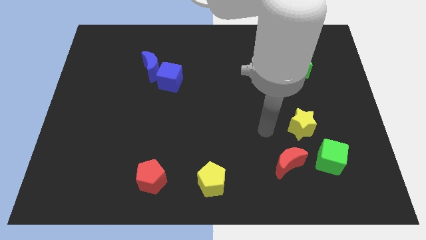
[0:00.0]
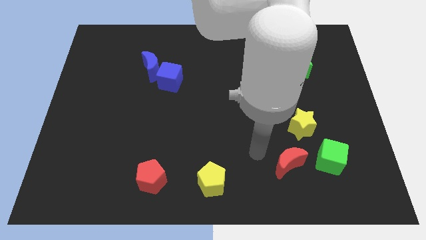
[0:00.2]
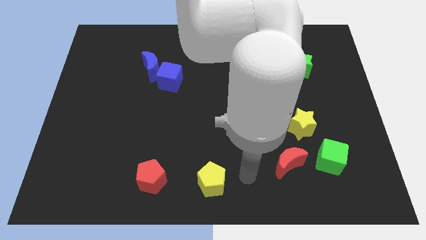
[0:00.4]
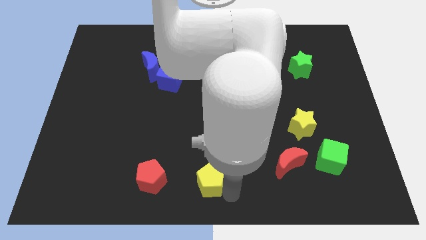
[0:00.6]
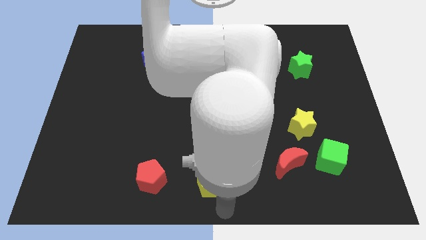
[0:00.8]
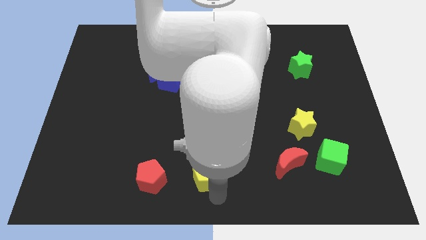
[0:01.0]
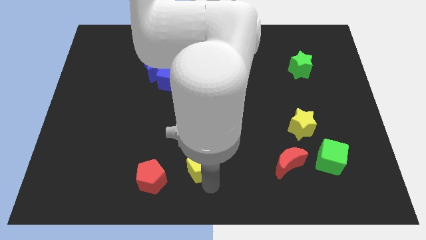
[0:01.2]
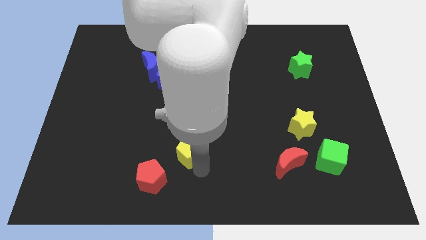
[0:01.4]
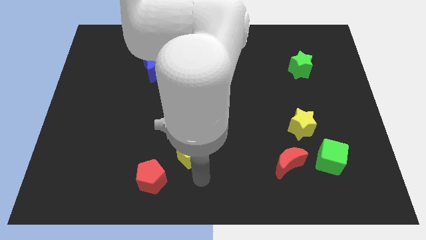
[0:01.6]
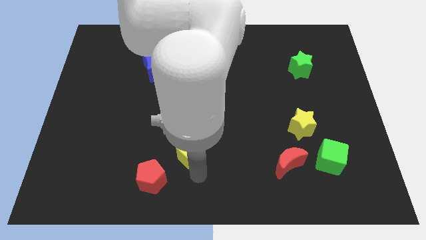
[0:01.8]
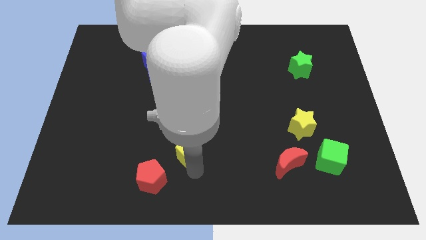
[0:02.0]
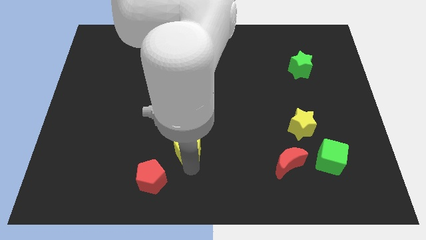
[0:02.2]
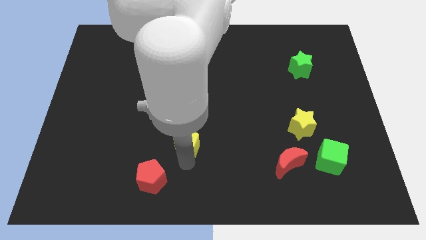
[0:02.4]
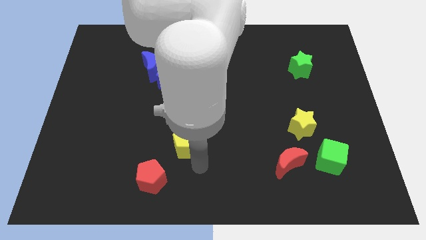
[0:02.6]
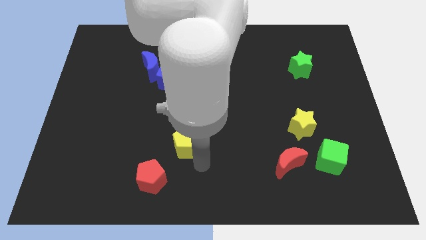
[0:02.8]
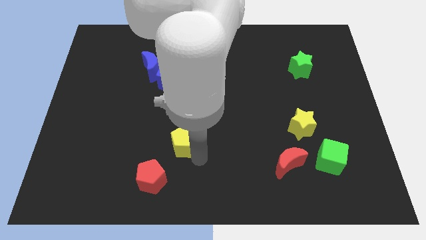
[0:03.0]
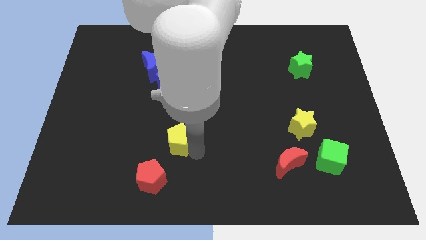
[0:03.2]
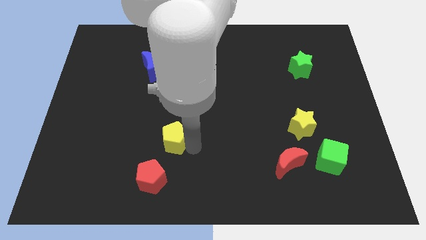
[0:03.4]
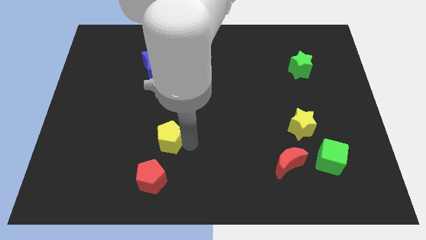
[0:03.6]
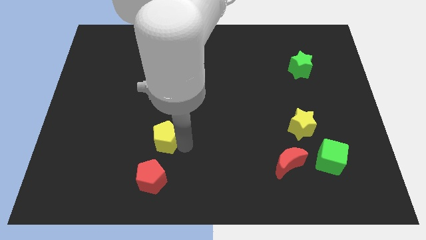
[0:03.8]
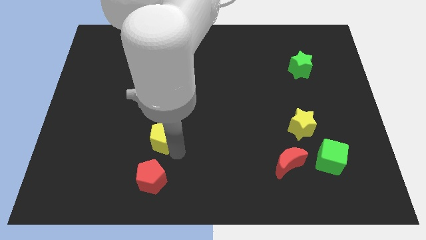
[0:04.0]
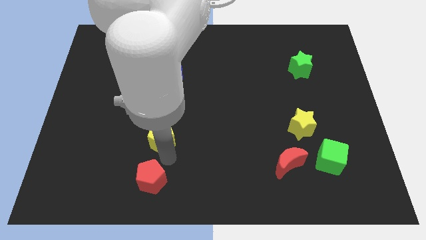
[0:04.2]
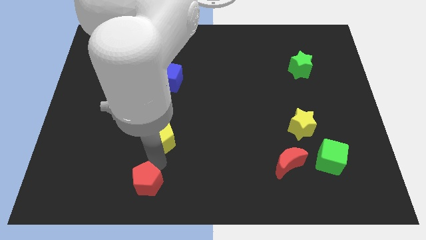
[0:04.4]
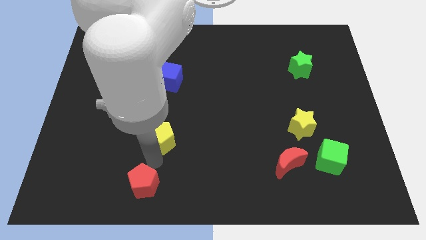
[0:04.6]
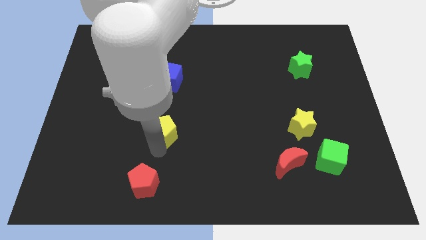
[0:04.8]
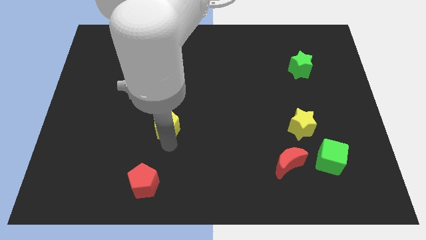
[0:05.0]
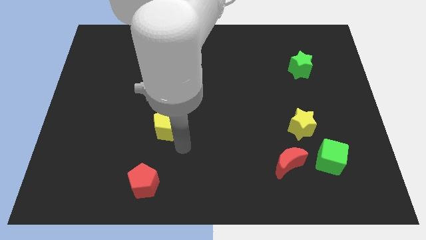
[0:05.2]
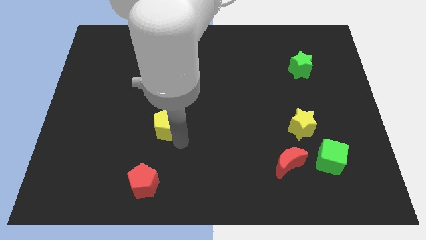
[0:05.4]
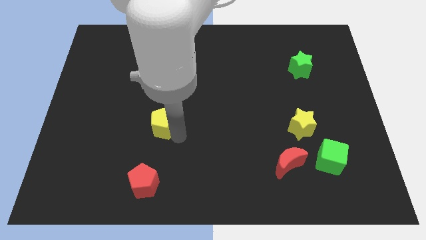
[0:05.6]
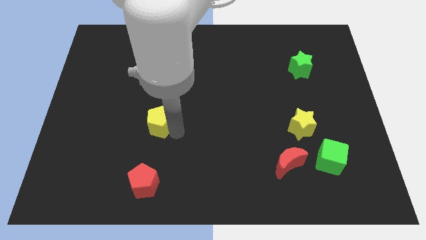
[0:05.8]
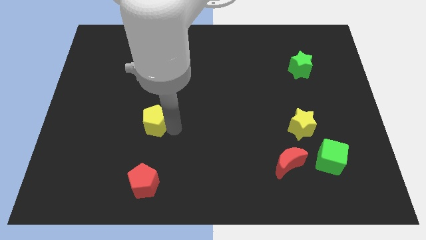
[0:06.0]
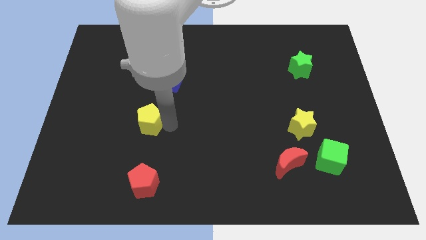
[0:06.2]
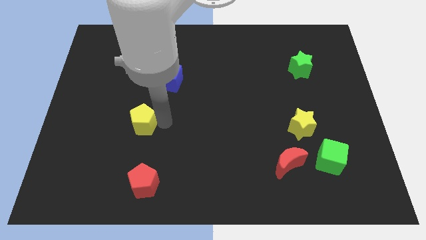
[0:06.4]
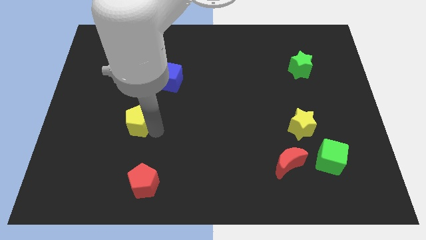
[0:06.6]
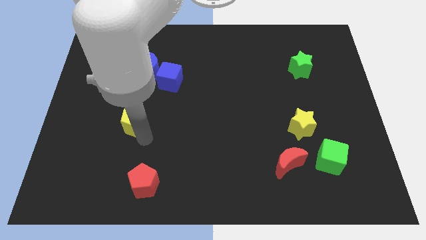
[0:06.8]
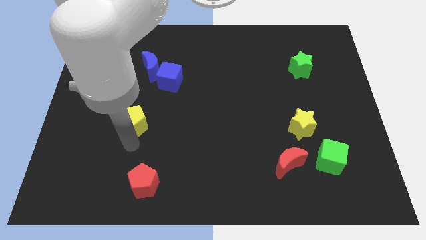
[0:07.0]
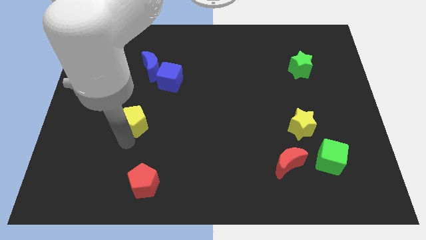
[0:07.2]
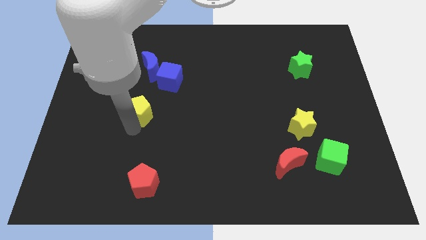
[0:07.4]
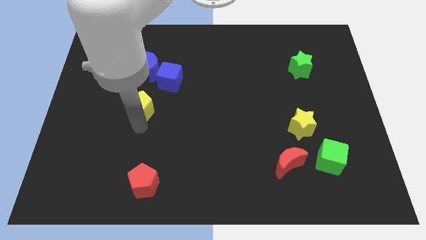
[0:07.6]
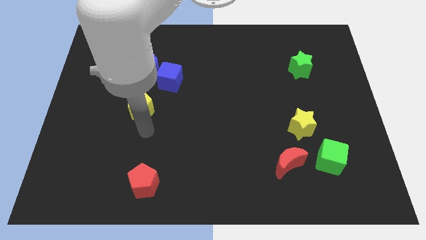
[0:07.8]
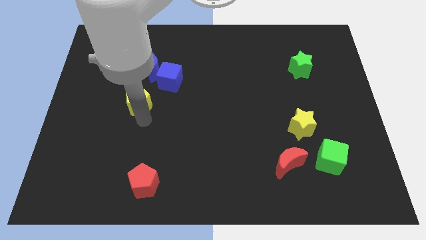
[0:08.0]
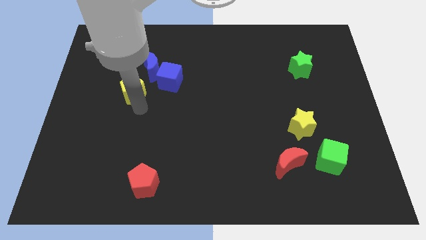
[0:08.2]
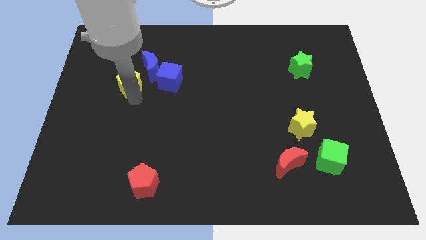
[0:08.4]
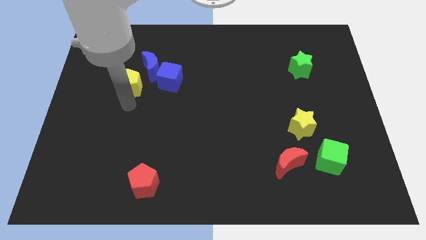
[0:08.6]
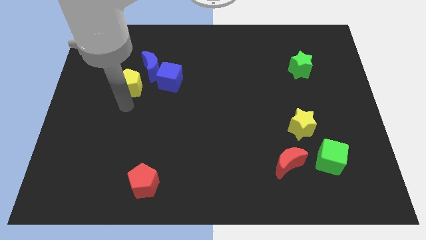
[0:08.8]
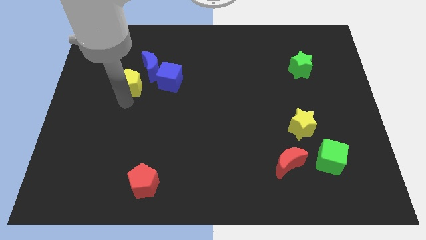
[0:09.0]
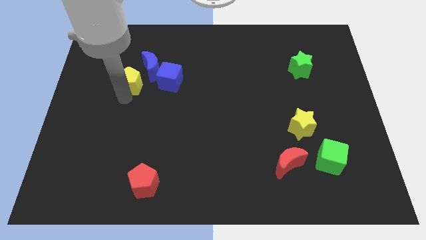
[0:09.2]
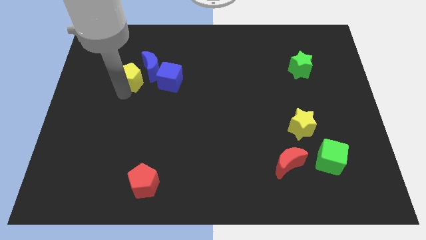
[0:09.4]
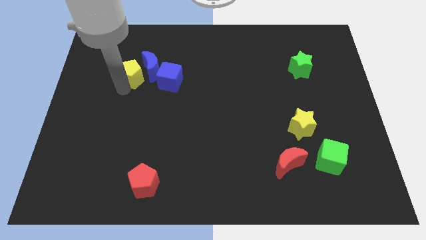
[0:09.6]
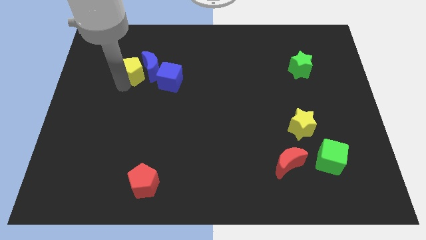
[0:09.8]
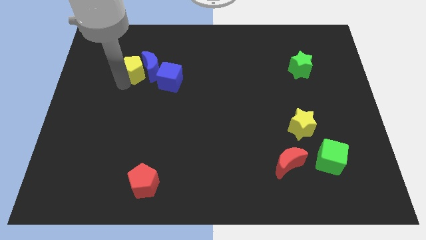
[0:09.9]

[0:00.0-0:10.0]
move the yellow pentagon to the top left of the blue cube

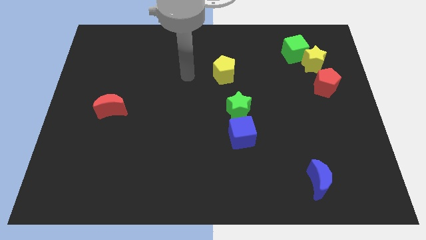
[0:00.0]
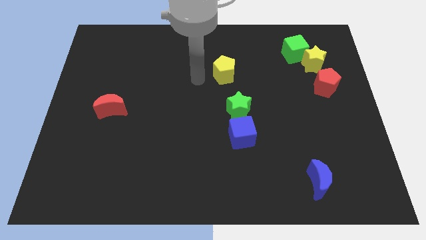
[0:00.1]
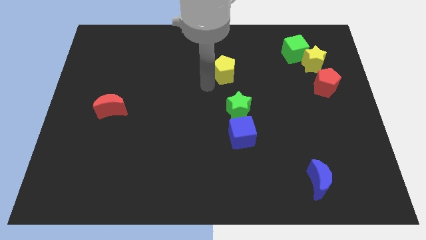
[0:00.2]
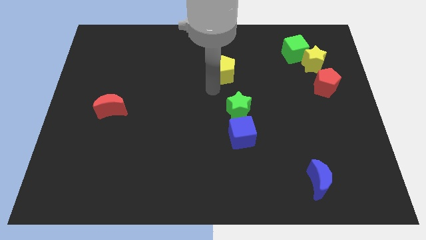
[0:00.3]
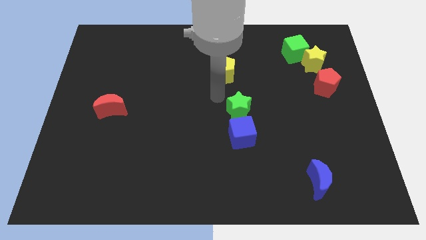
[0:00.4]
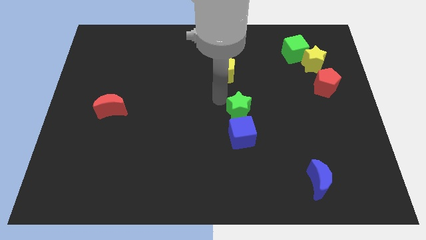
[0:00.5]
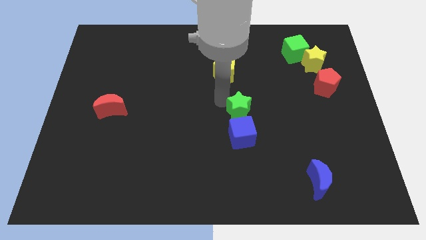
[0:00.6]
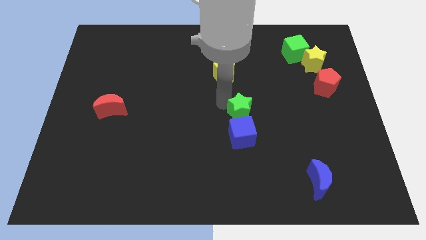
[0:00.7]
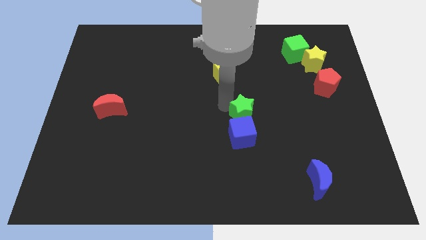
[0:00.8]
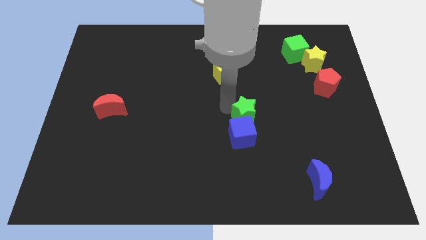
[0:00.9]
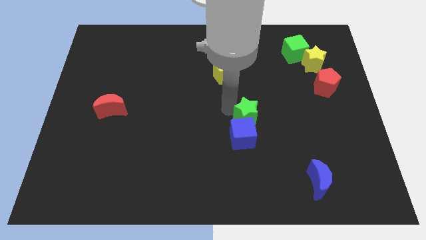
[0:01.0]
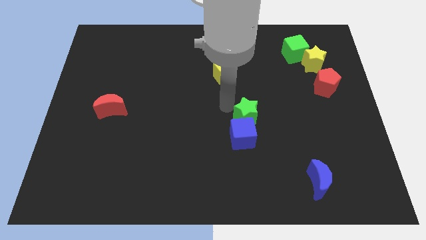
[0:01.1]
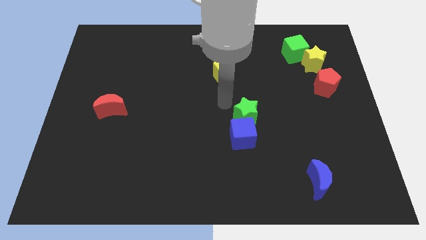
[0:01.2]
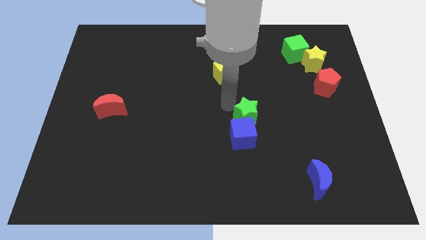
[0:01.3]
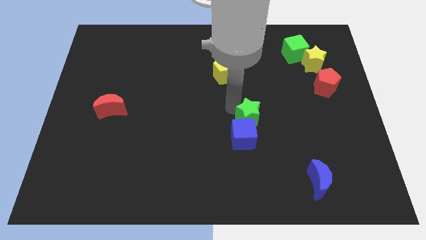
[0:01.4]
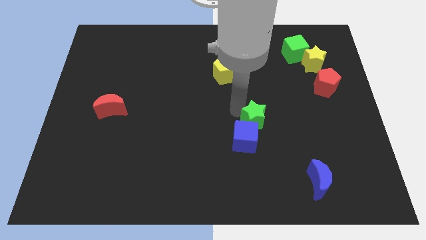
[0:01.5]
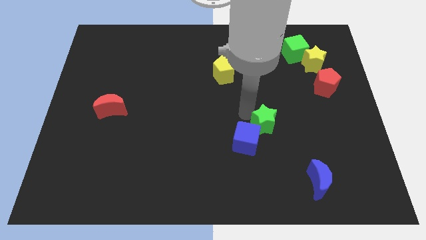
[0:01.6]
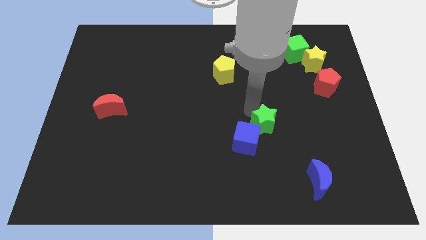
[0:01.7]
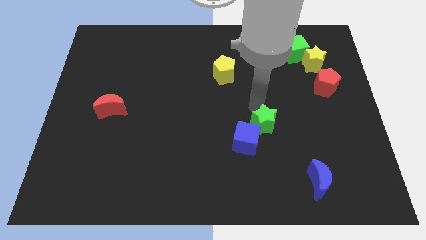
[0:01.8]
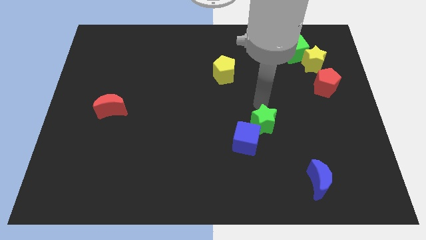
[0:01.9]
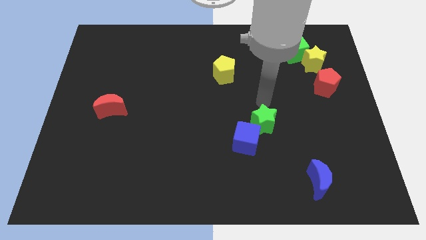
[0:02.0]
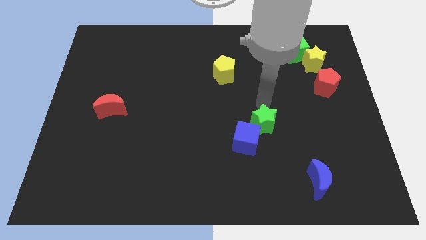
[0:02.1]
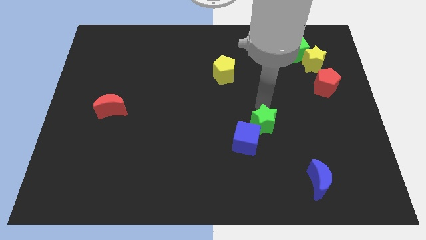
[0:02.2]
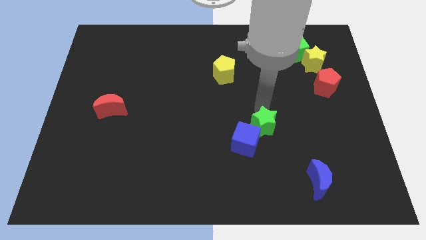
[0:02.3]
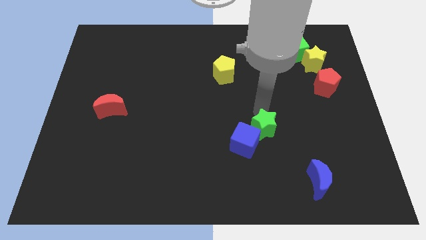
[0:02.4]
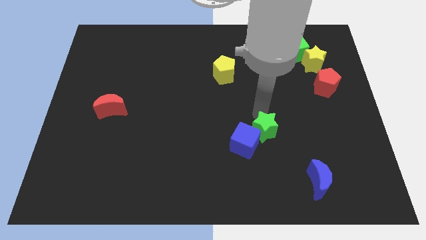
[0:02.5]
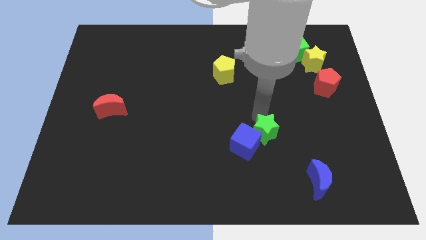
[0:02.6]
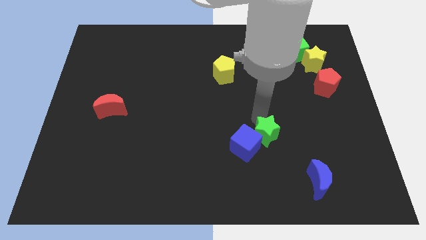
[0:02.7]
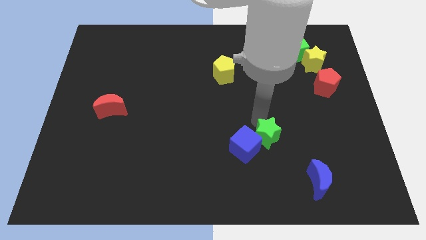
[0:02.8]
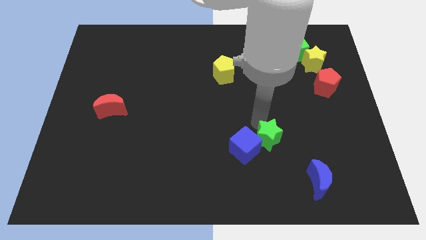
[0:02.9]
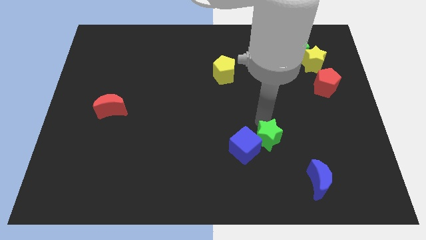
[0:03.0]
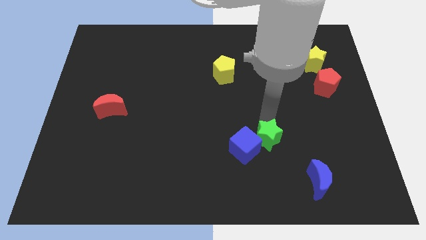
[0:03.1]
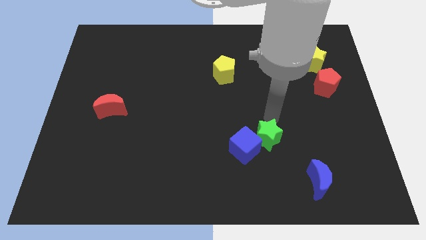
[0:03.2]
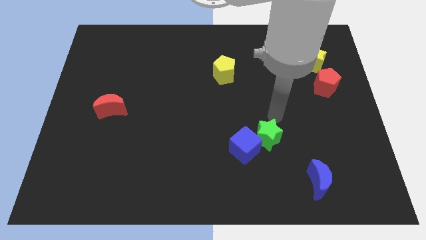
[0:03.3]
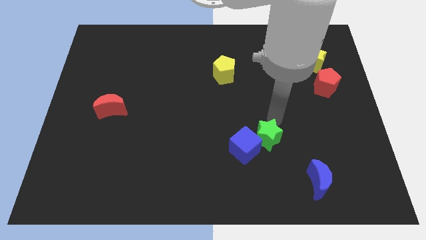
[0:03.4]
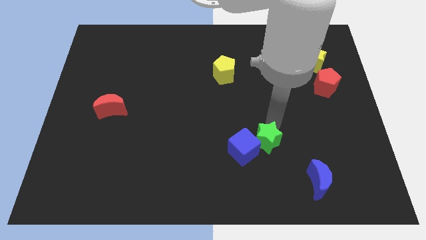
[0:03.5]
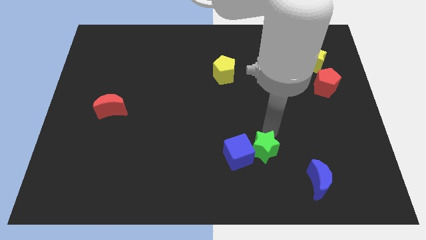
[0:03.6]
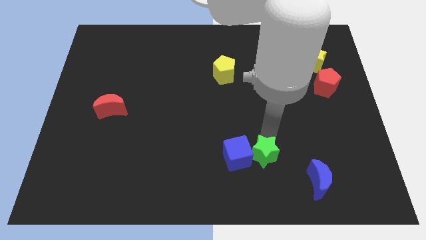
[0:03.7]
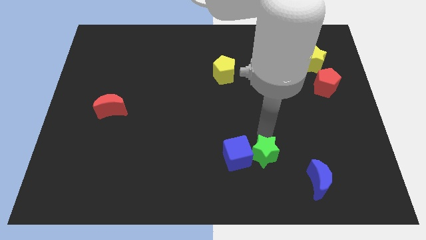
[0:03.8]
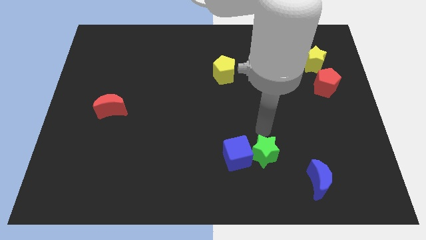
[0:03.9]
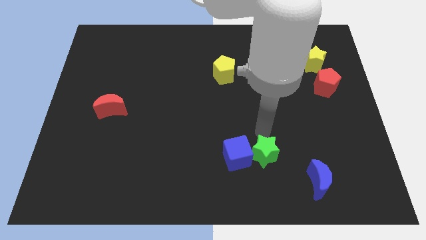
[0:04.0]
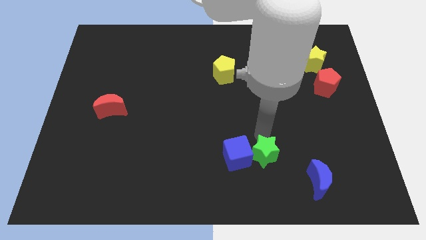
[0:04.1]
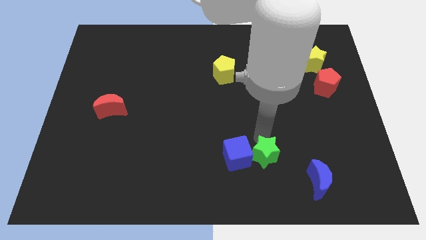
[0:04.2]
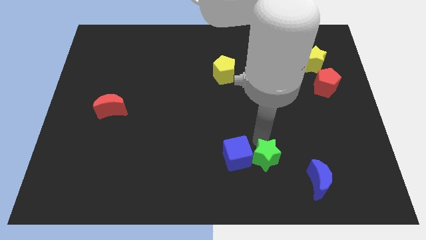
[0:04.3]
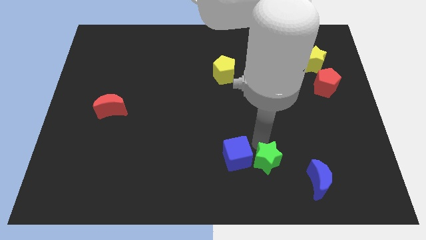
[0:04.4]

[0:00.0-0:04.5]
move the green star to the left side of the blue moon
